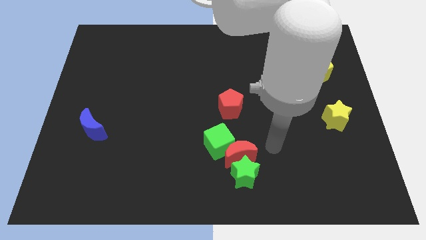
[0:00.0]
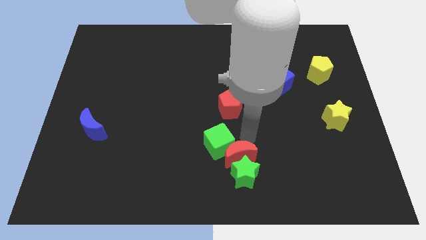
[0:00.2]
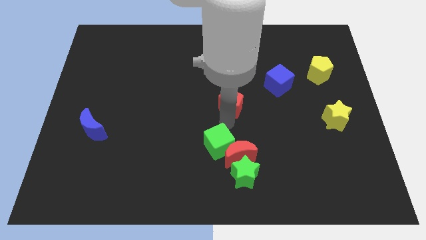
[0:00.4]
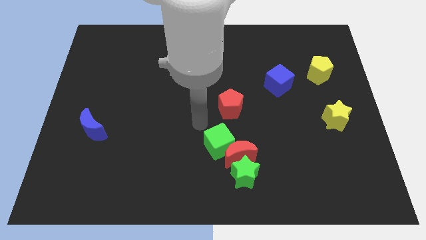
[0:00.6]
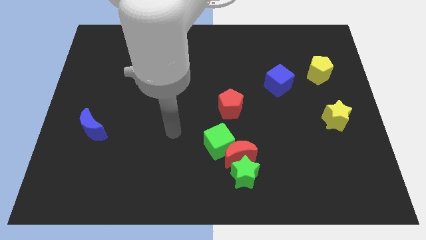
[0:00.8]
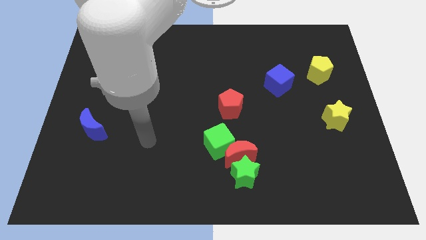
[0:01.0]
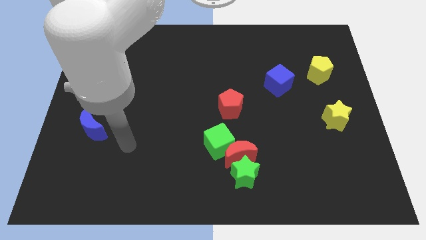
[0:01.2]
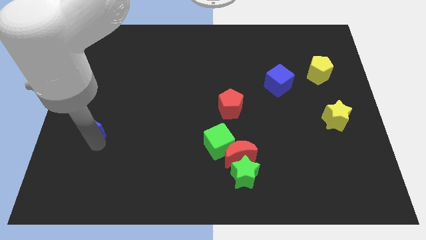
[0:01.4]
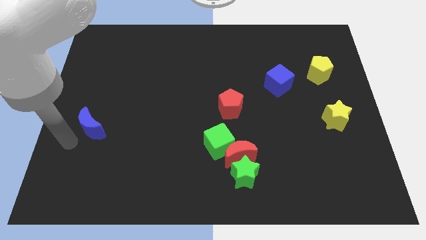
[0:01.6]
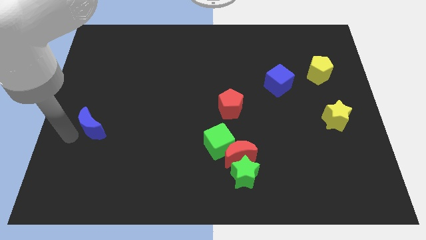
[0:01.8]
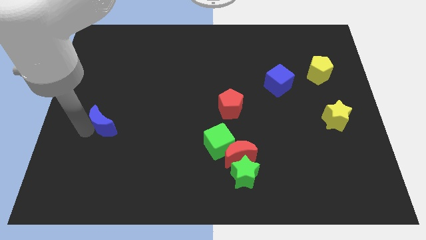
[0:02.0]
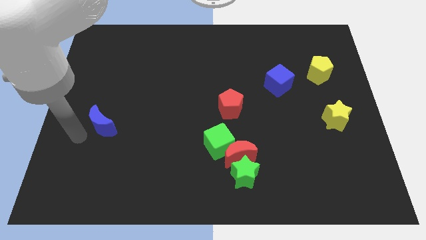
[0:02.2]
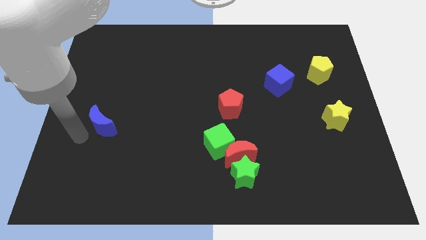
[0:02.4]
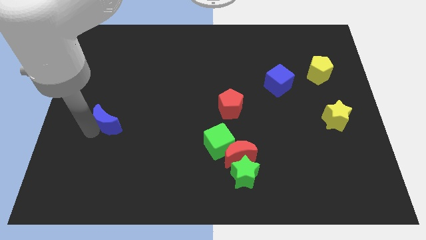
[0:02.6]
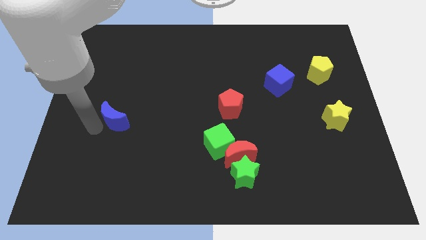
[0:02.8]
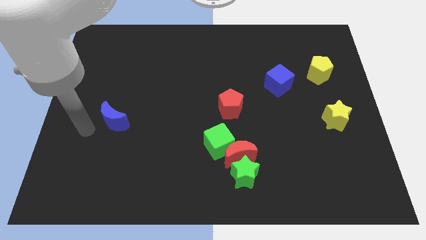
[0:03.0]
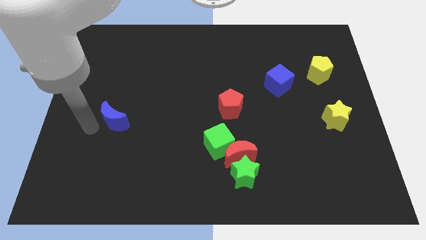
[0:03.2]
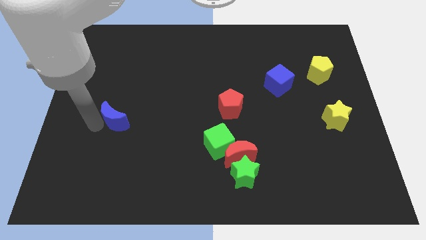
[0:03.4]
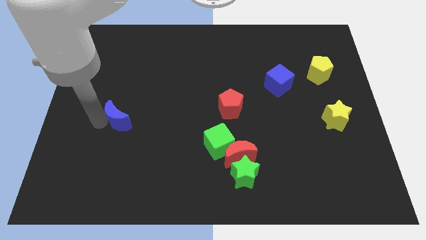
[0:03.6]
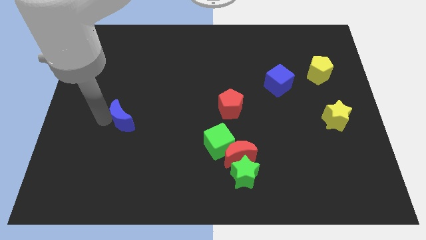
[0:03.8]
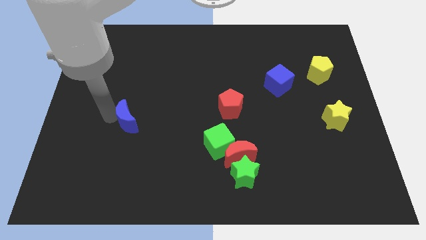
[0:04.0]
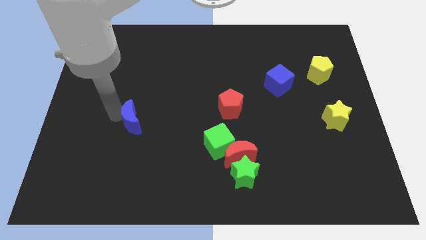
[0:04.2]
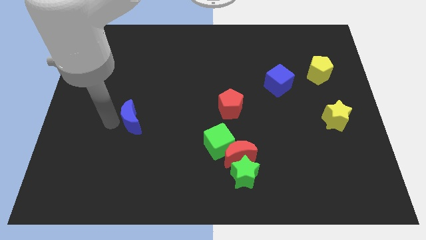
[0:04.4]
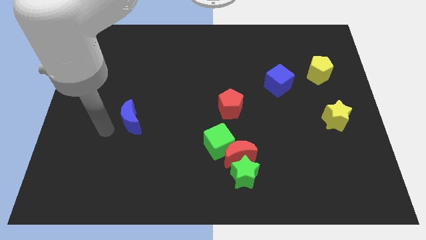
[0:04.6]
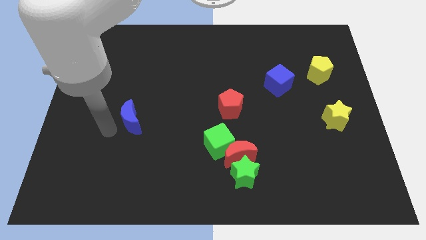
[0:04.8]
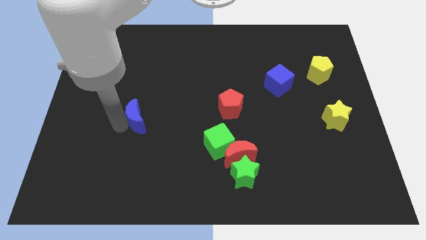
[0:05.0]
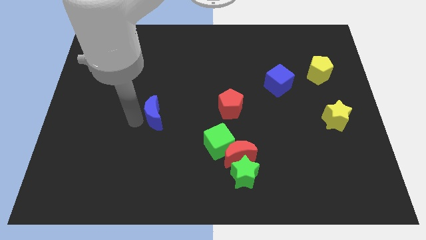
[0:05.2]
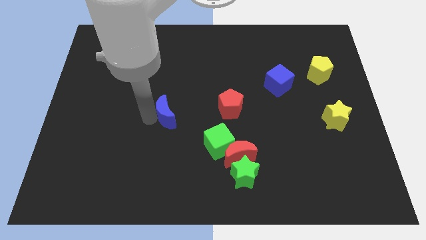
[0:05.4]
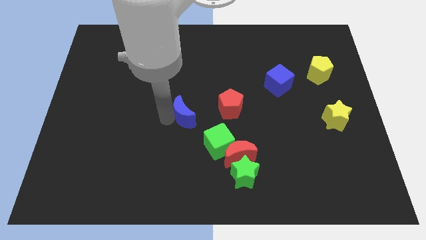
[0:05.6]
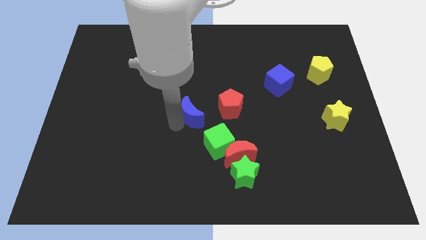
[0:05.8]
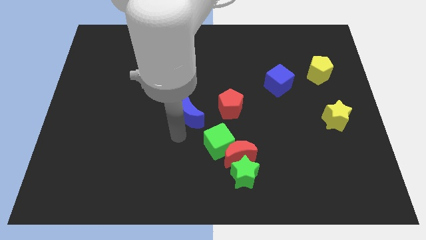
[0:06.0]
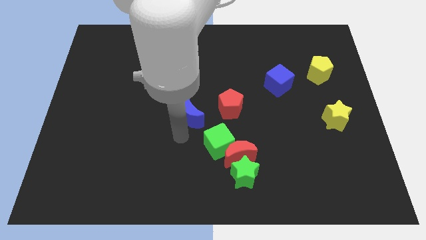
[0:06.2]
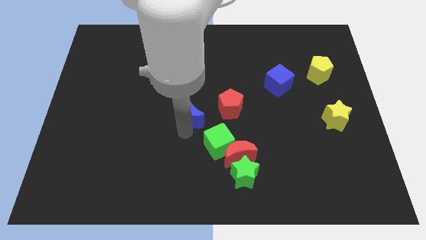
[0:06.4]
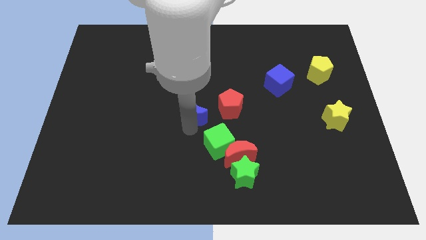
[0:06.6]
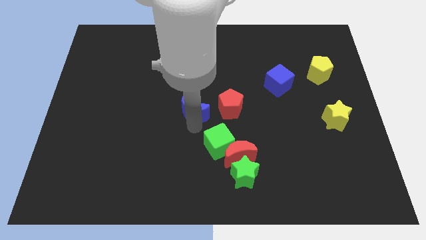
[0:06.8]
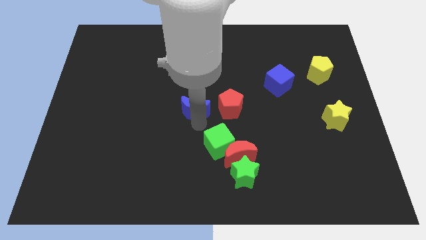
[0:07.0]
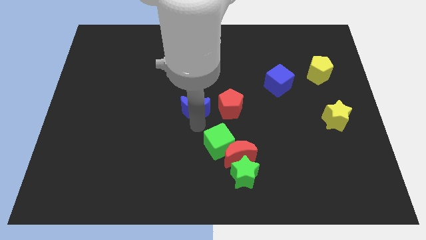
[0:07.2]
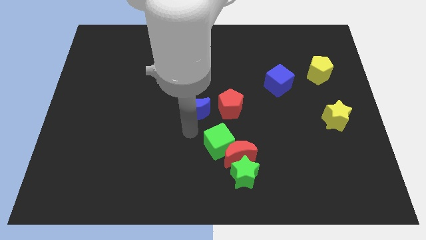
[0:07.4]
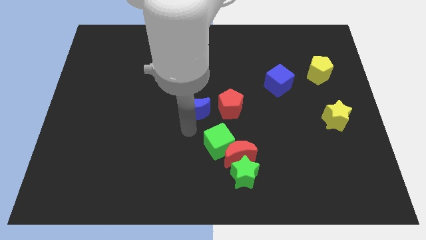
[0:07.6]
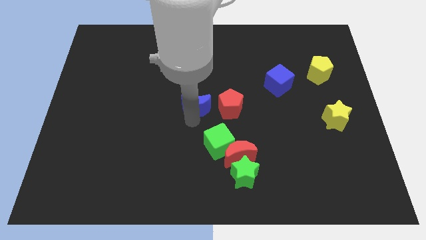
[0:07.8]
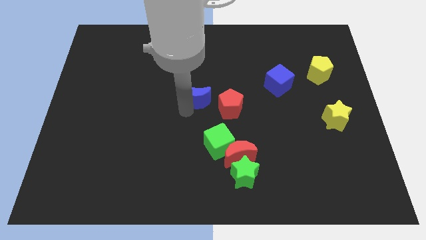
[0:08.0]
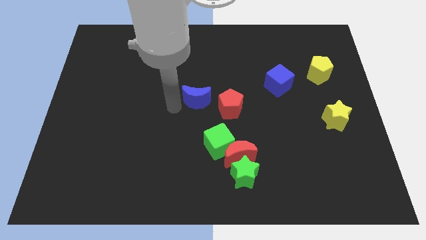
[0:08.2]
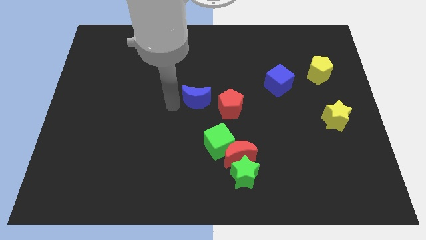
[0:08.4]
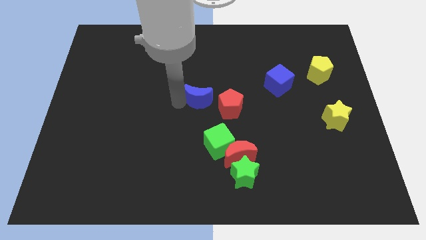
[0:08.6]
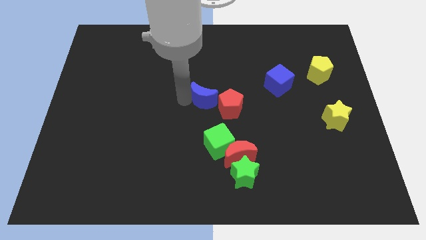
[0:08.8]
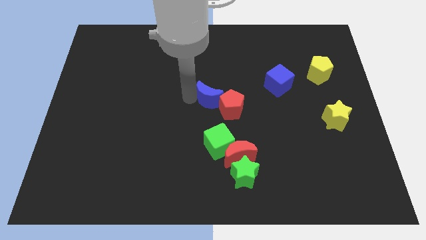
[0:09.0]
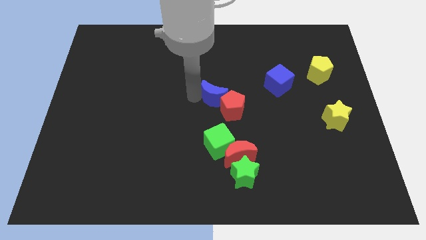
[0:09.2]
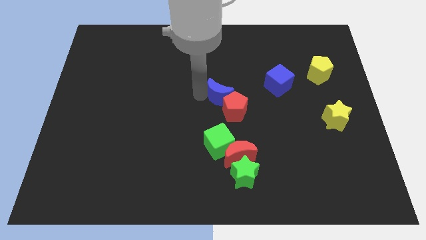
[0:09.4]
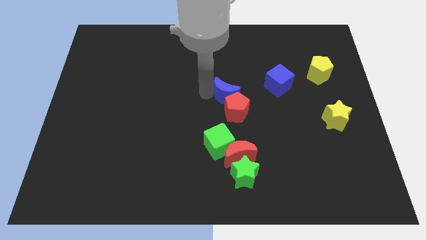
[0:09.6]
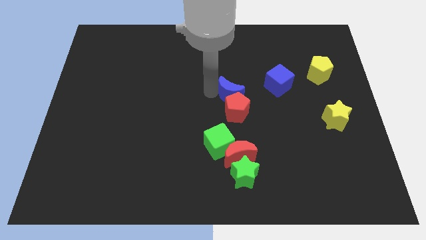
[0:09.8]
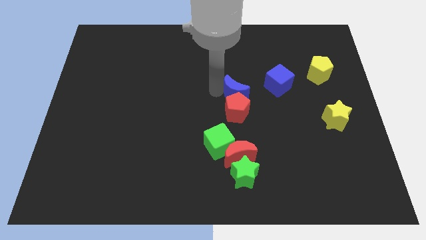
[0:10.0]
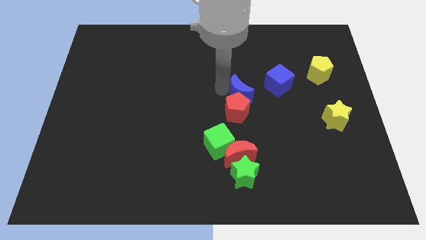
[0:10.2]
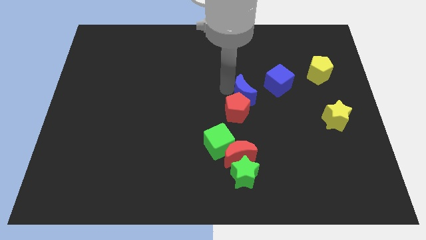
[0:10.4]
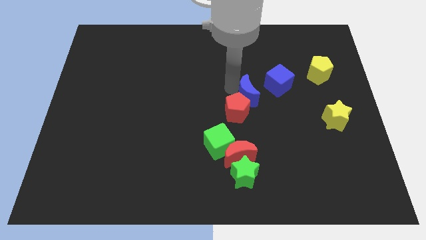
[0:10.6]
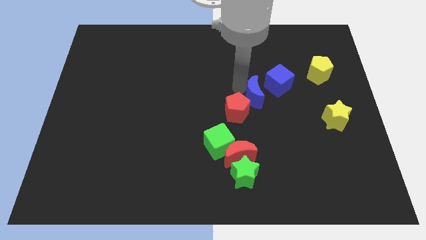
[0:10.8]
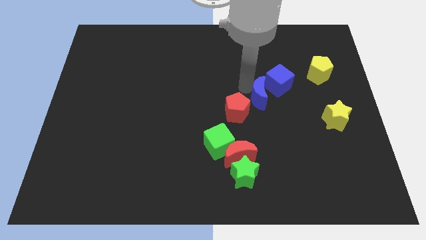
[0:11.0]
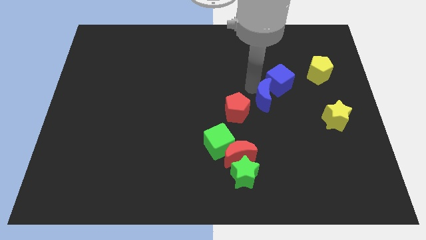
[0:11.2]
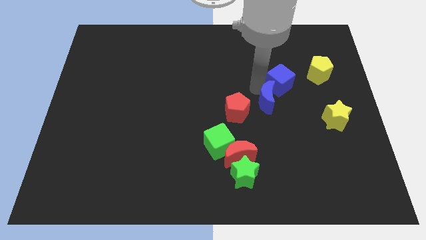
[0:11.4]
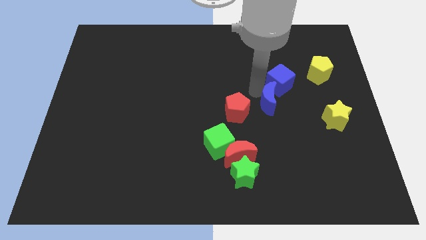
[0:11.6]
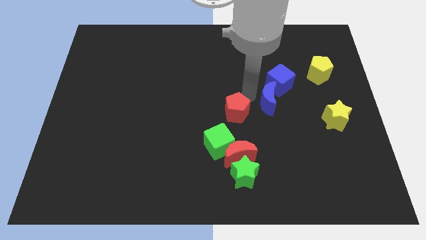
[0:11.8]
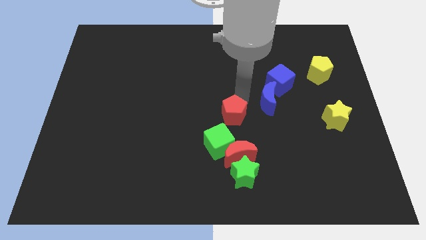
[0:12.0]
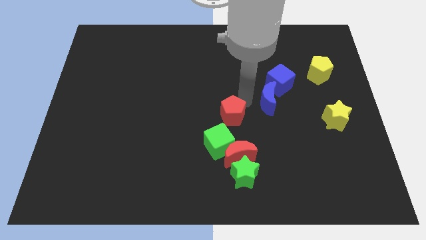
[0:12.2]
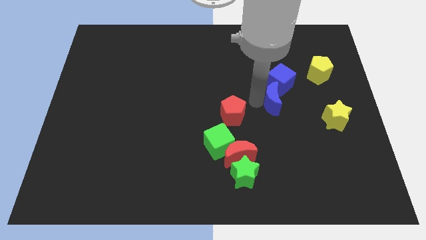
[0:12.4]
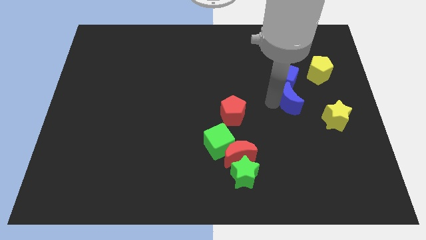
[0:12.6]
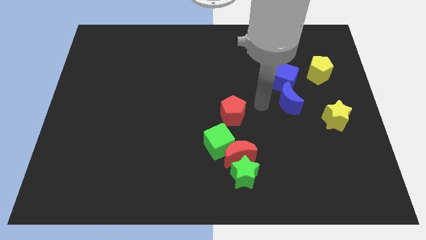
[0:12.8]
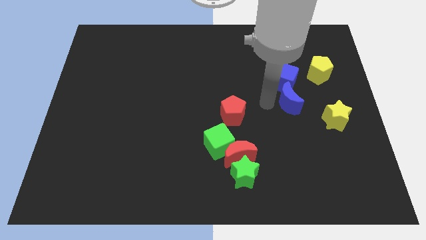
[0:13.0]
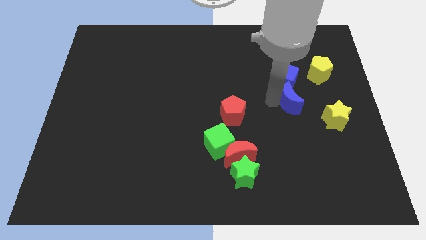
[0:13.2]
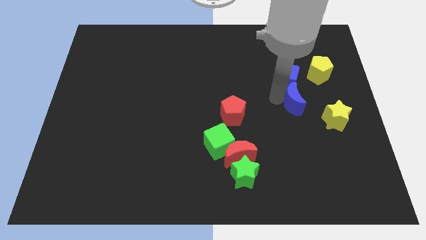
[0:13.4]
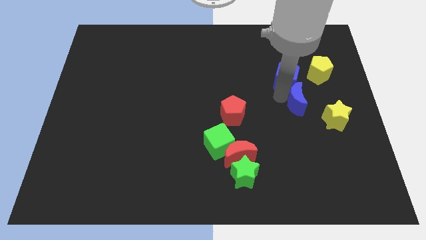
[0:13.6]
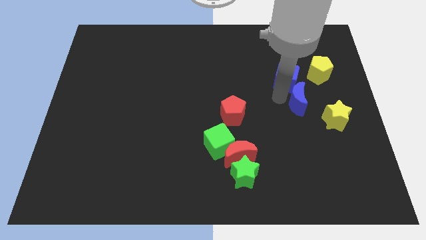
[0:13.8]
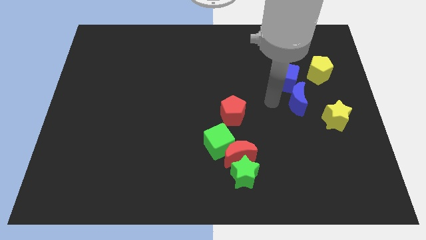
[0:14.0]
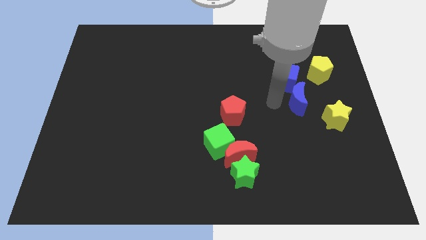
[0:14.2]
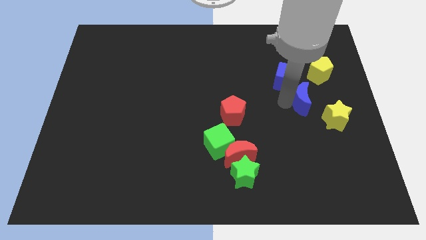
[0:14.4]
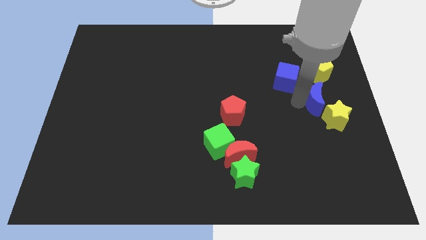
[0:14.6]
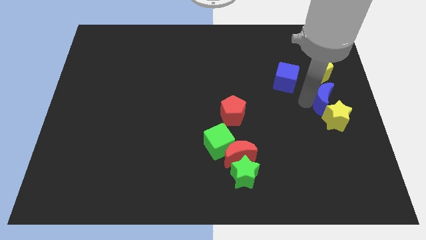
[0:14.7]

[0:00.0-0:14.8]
push the blue moon to the center right
